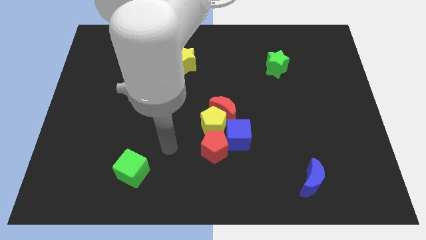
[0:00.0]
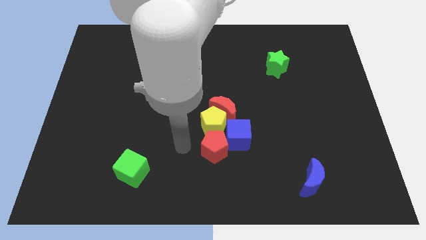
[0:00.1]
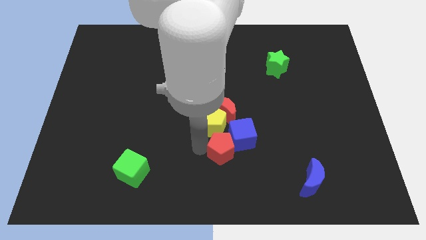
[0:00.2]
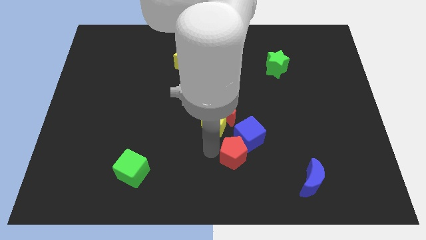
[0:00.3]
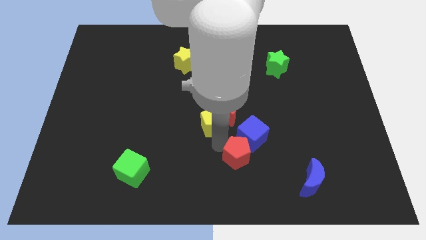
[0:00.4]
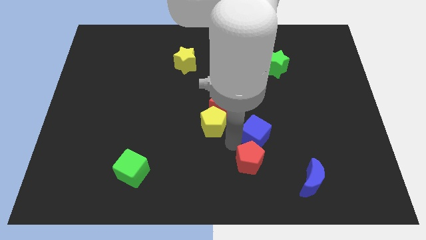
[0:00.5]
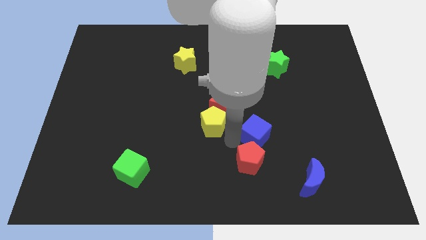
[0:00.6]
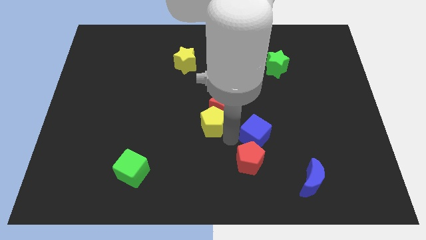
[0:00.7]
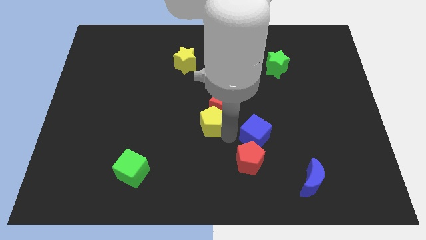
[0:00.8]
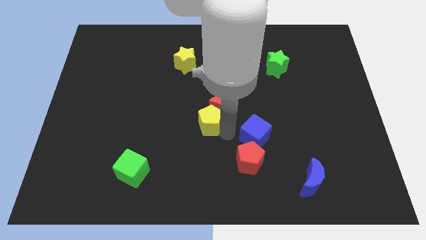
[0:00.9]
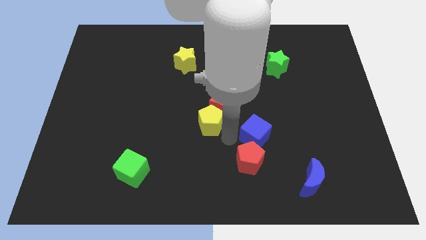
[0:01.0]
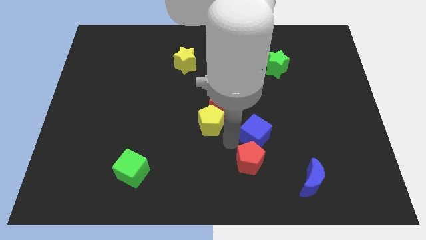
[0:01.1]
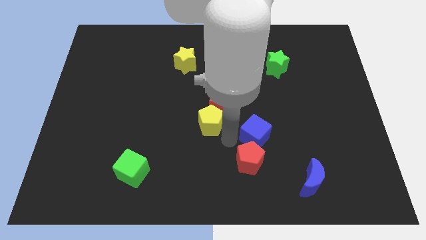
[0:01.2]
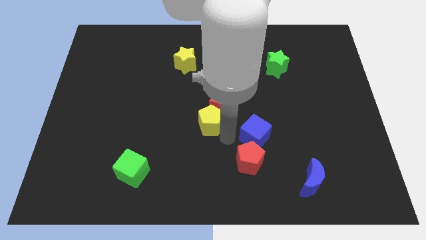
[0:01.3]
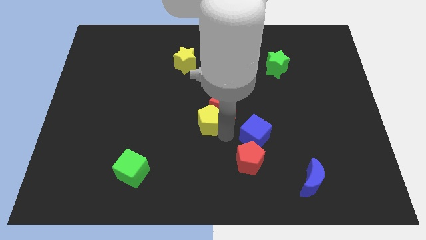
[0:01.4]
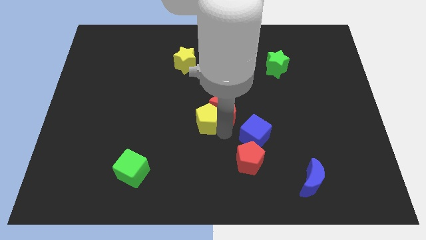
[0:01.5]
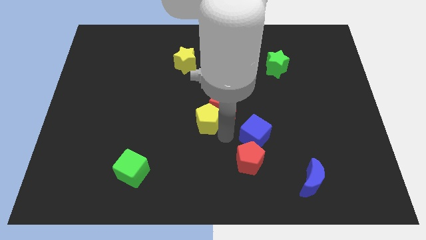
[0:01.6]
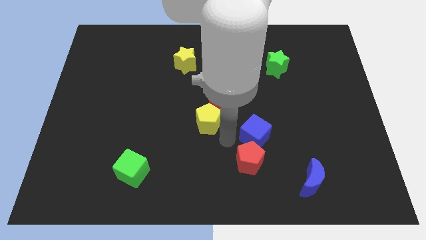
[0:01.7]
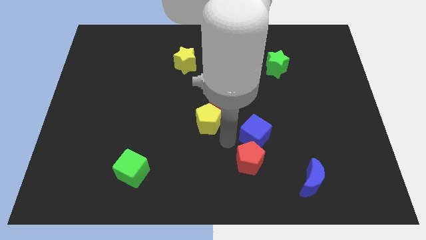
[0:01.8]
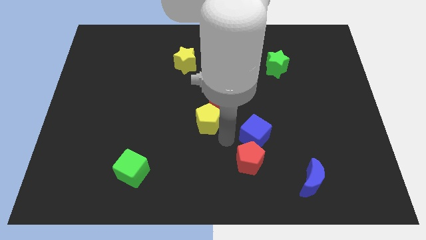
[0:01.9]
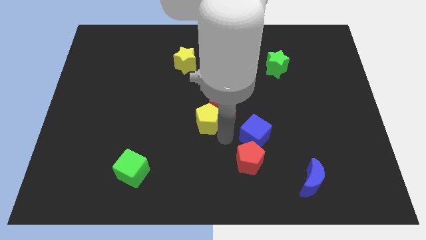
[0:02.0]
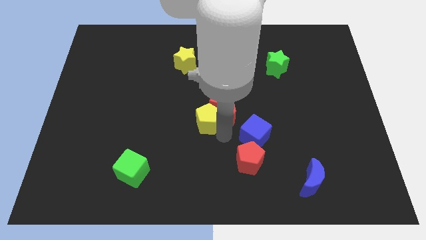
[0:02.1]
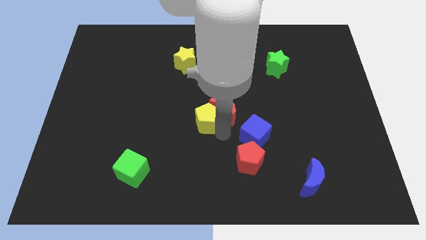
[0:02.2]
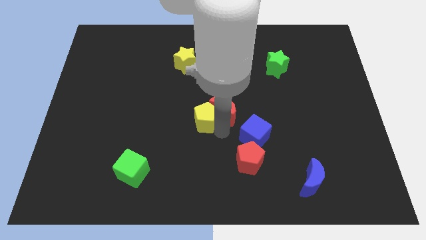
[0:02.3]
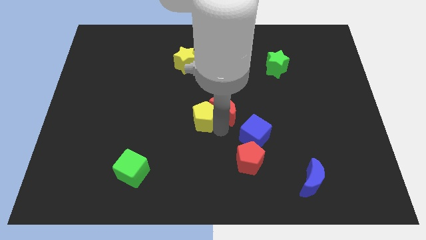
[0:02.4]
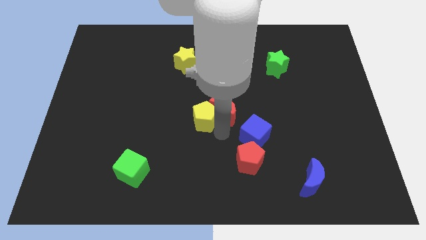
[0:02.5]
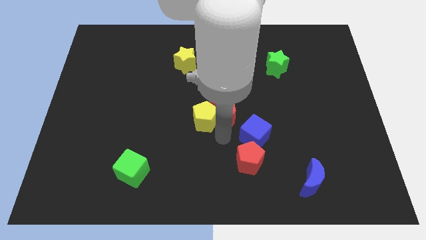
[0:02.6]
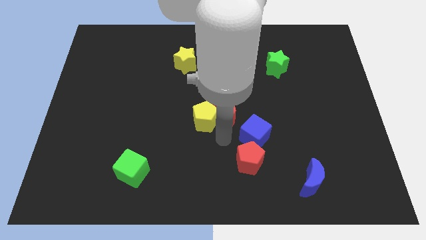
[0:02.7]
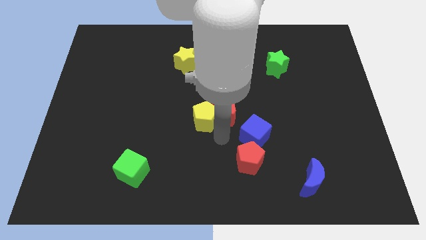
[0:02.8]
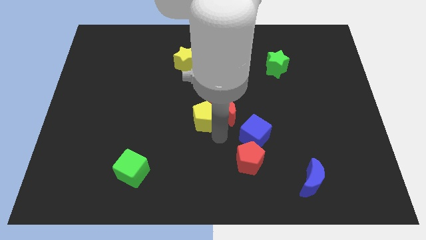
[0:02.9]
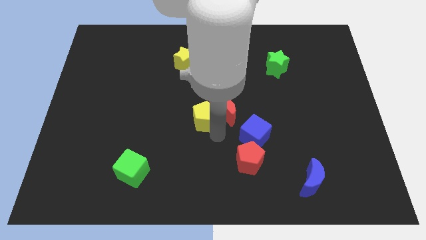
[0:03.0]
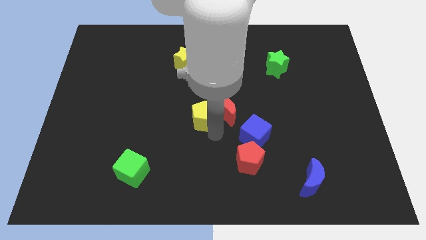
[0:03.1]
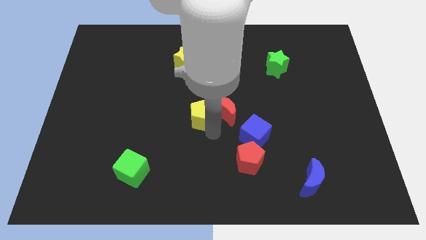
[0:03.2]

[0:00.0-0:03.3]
pull the yellow pentagon apart from the group

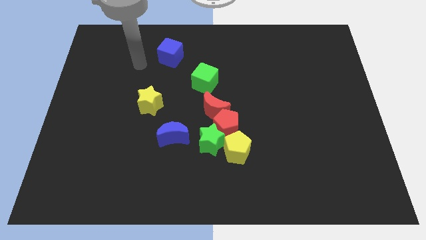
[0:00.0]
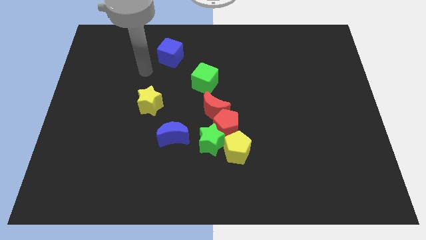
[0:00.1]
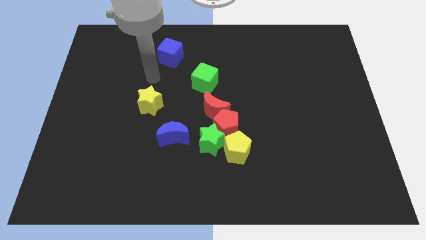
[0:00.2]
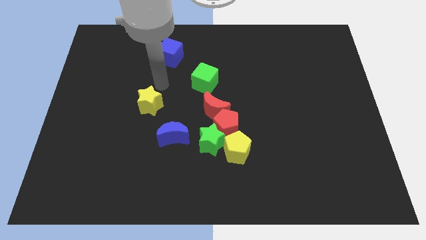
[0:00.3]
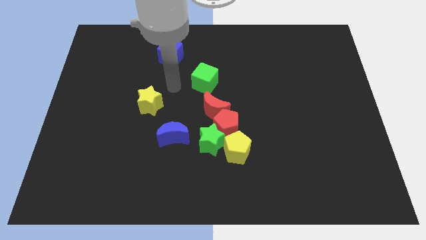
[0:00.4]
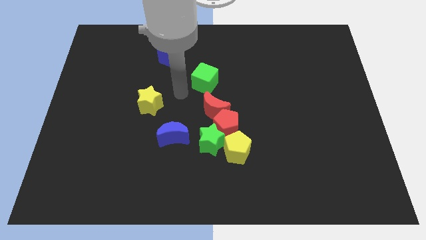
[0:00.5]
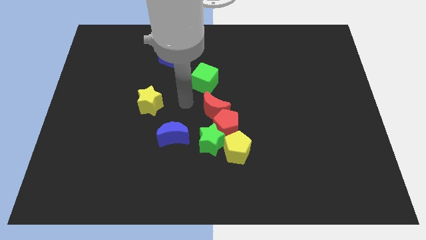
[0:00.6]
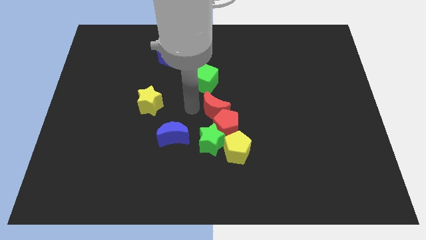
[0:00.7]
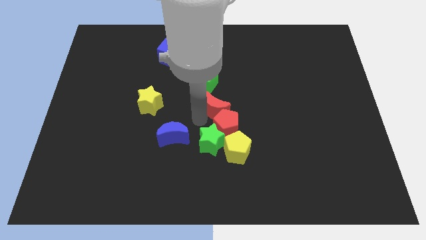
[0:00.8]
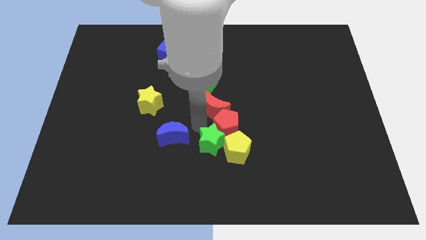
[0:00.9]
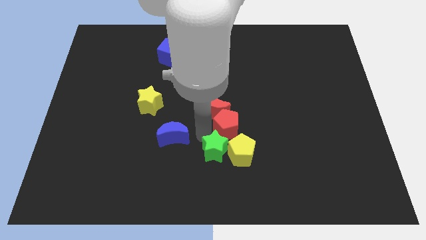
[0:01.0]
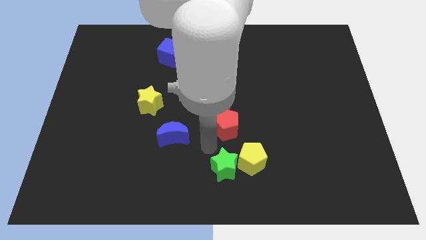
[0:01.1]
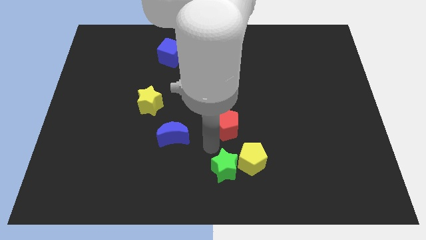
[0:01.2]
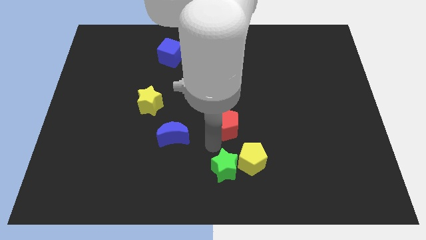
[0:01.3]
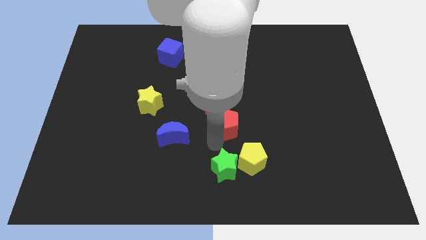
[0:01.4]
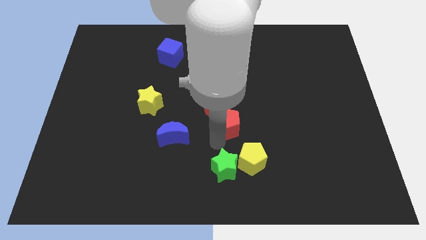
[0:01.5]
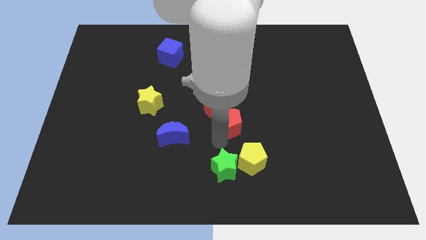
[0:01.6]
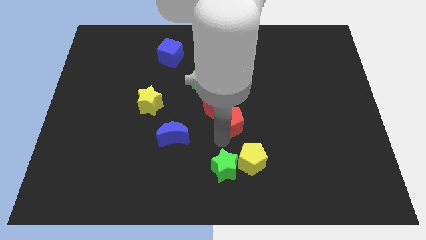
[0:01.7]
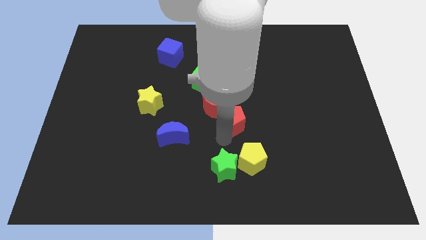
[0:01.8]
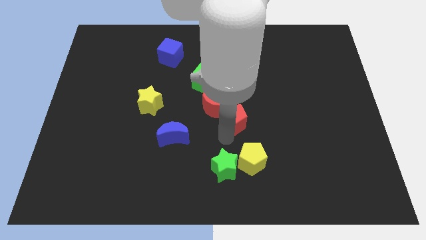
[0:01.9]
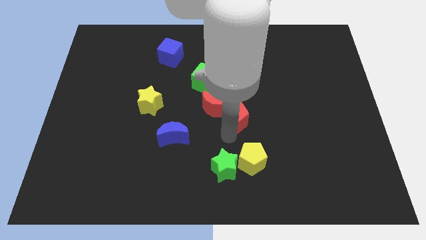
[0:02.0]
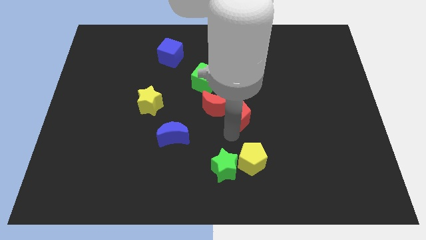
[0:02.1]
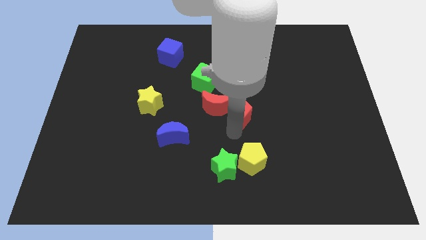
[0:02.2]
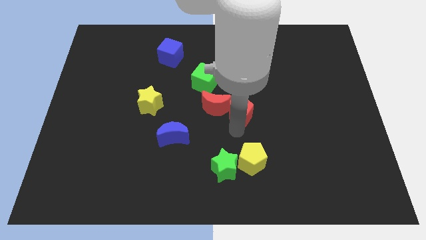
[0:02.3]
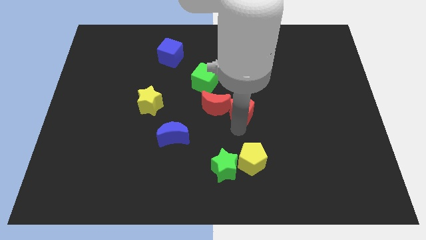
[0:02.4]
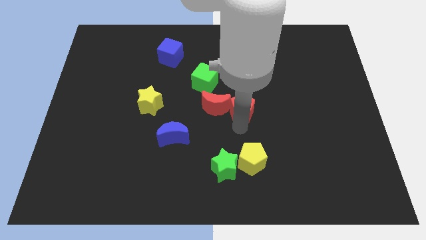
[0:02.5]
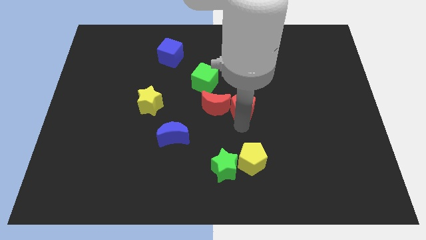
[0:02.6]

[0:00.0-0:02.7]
pull the red pentagon apart from the group

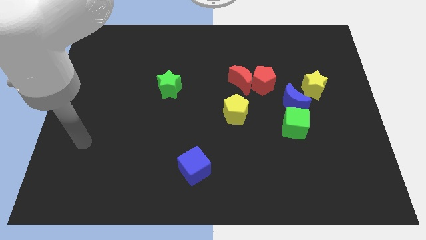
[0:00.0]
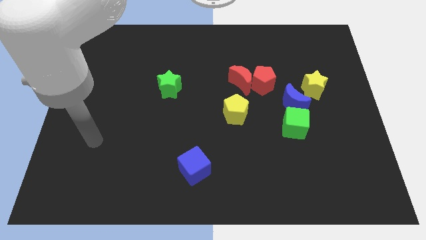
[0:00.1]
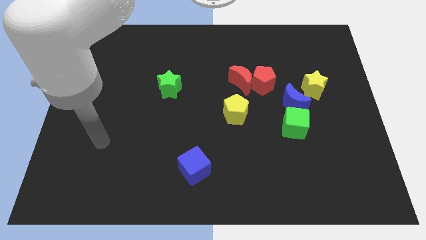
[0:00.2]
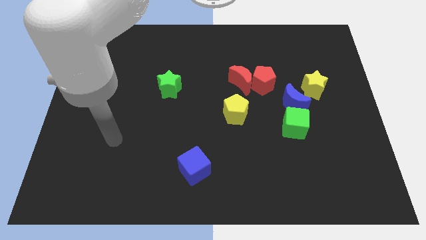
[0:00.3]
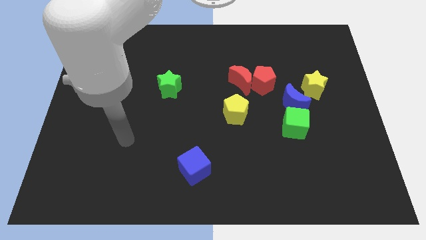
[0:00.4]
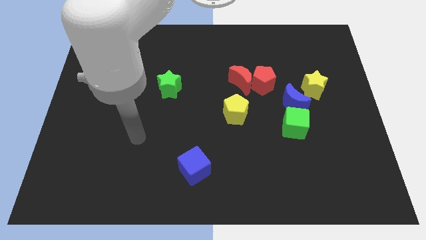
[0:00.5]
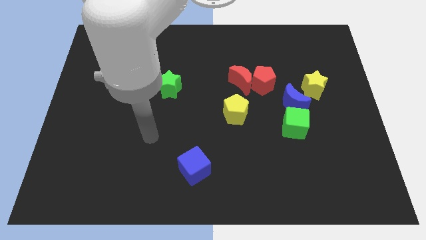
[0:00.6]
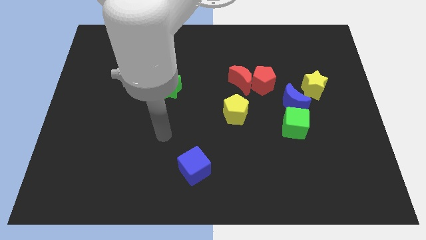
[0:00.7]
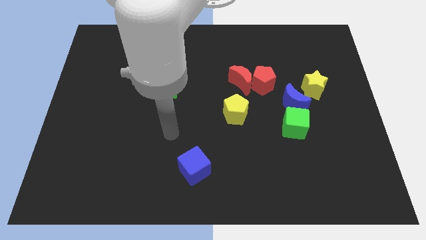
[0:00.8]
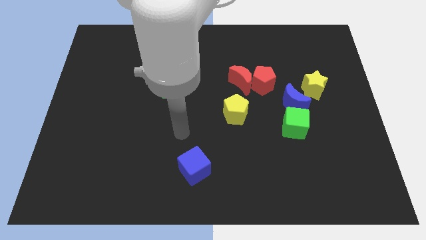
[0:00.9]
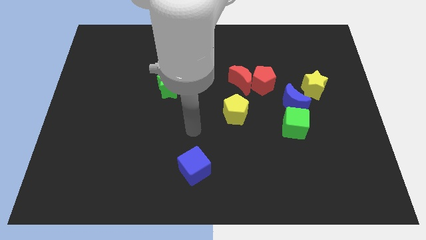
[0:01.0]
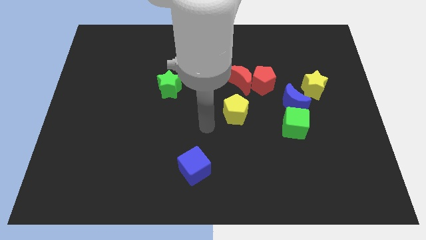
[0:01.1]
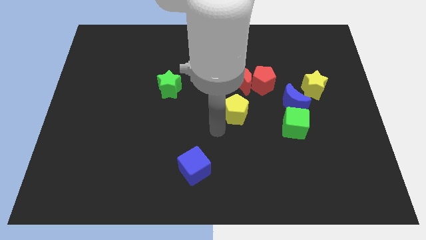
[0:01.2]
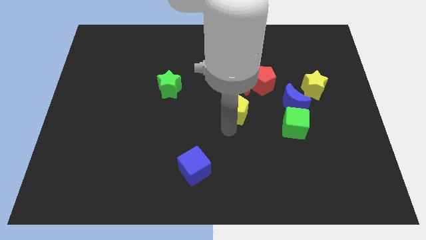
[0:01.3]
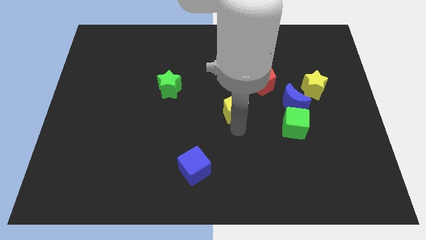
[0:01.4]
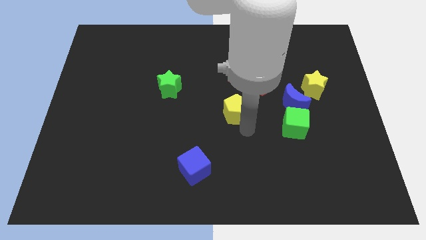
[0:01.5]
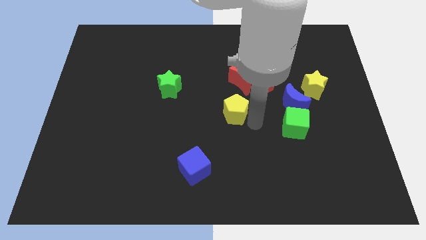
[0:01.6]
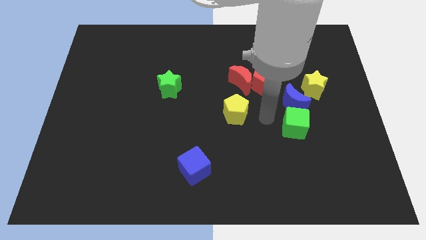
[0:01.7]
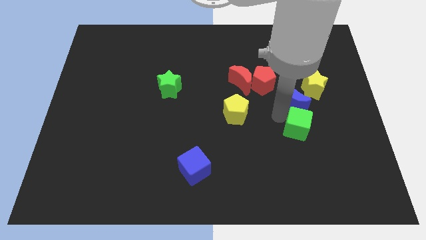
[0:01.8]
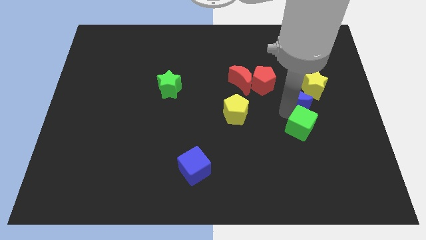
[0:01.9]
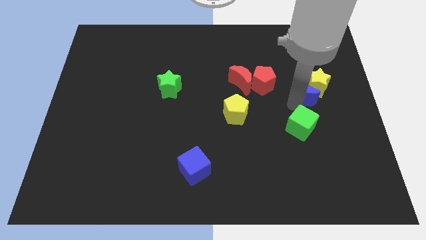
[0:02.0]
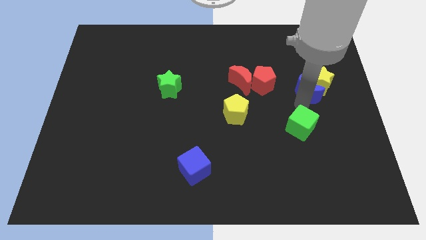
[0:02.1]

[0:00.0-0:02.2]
move the green cube away from the blue moon

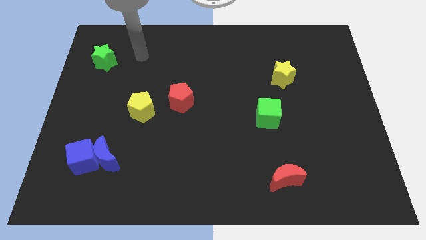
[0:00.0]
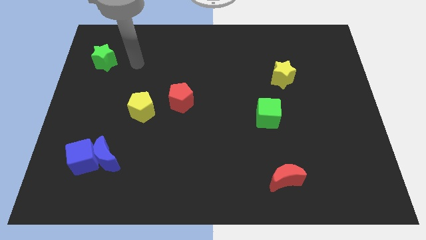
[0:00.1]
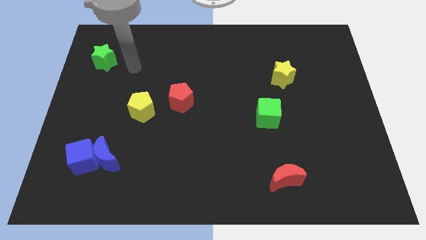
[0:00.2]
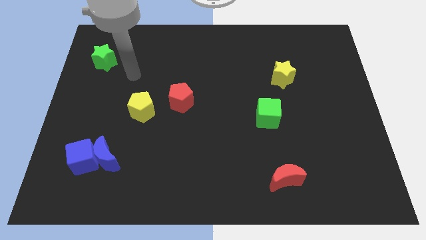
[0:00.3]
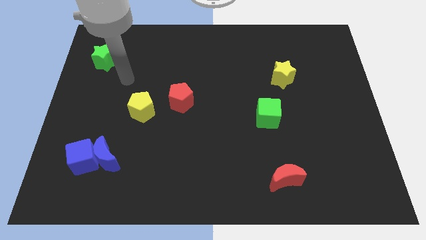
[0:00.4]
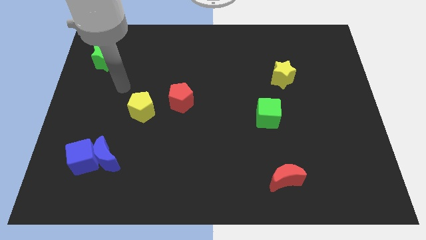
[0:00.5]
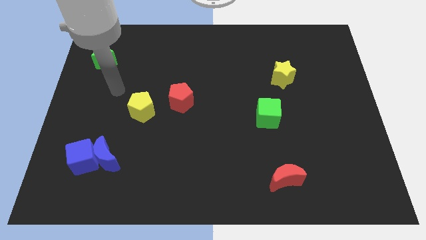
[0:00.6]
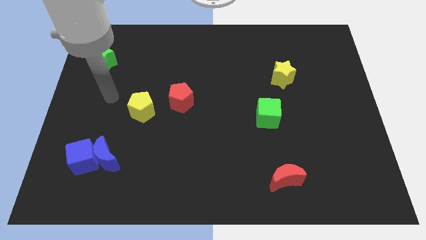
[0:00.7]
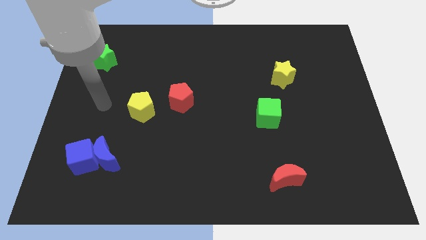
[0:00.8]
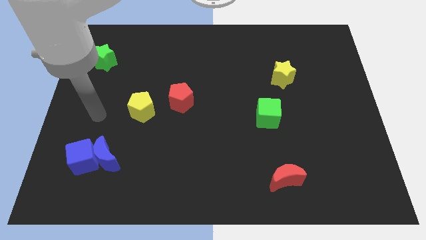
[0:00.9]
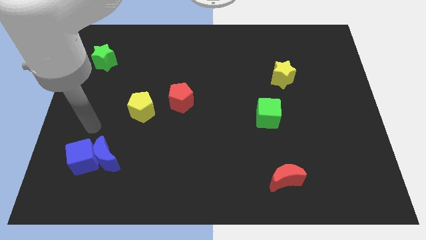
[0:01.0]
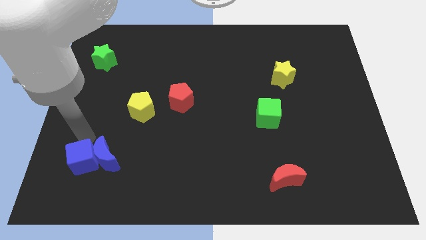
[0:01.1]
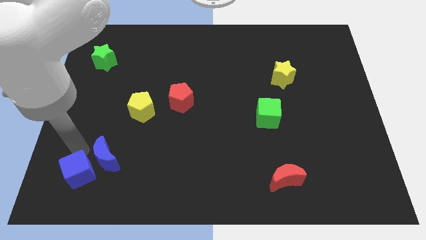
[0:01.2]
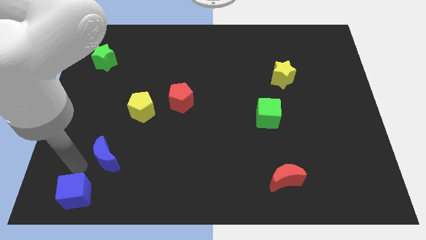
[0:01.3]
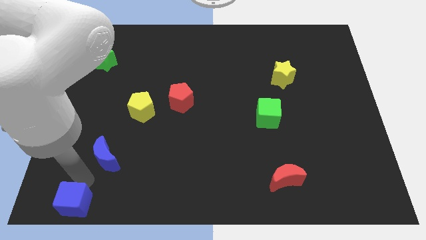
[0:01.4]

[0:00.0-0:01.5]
separate the blue moon from the blue cube
